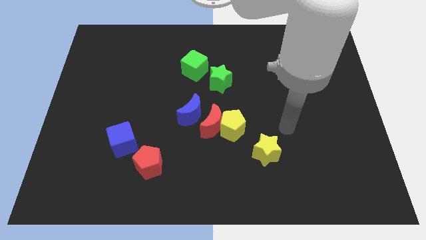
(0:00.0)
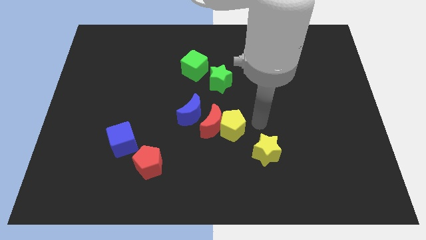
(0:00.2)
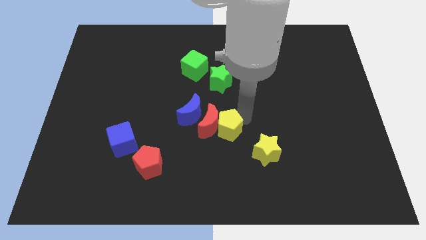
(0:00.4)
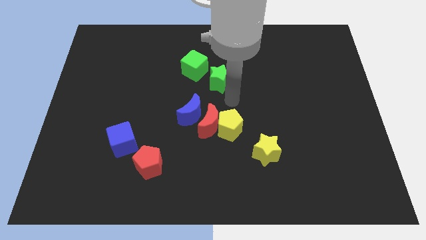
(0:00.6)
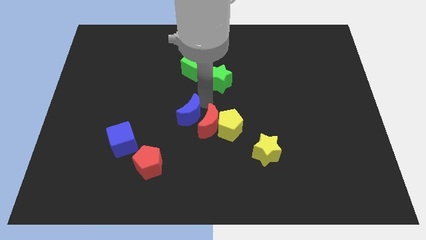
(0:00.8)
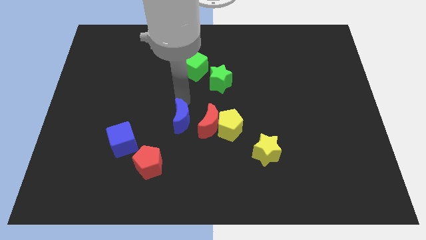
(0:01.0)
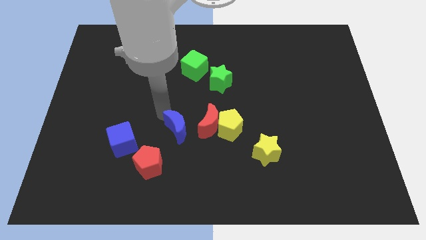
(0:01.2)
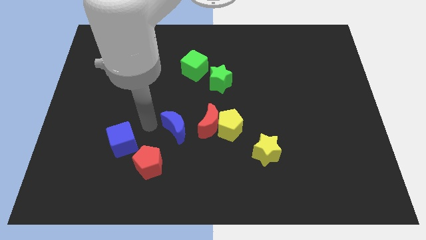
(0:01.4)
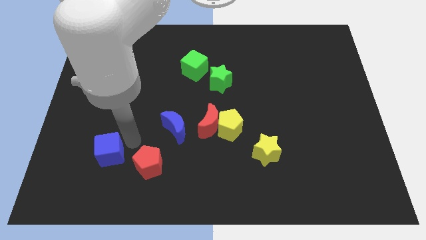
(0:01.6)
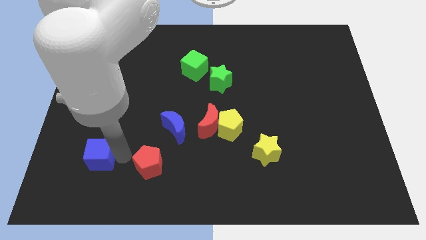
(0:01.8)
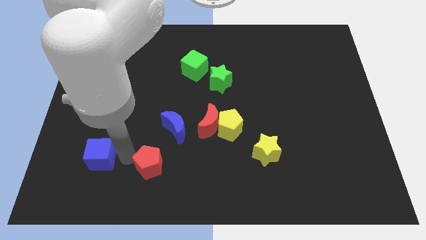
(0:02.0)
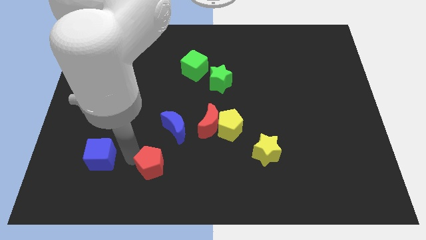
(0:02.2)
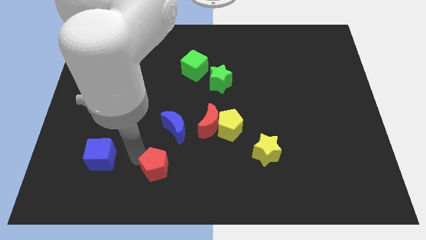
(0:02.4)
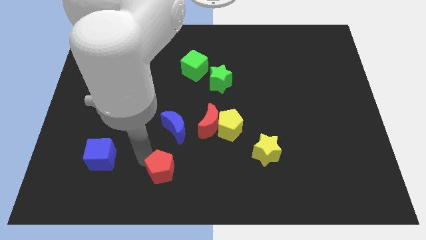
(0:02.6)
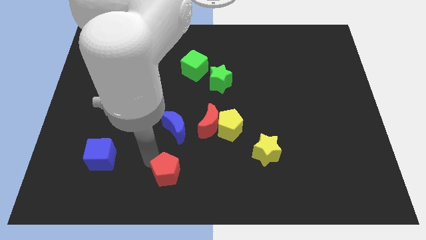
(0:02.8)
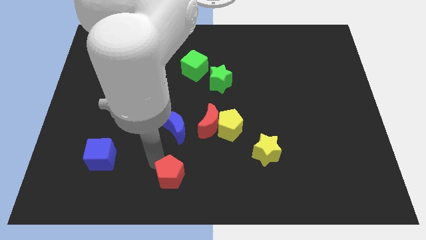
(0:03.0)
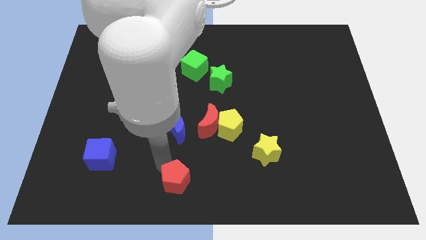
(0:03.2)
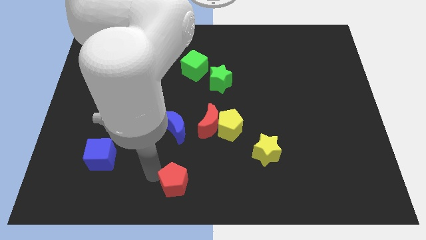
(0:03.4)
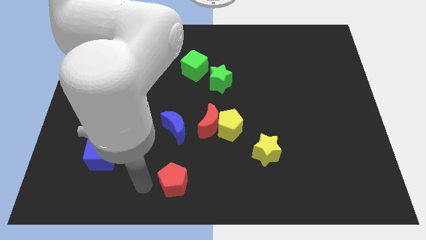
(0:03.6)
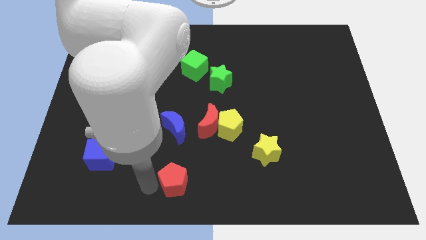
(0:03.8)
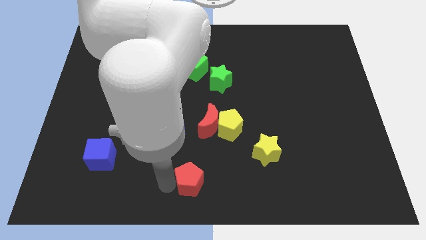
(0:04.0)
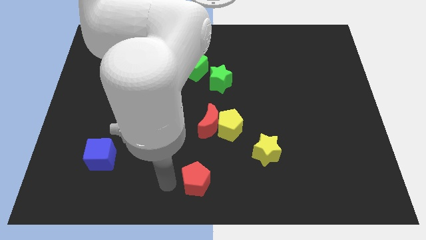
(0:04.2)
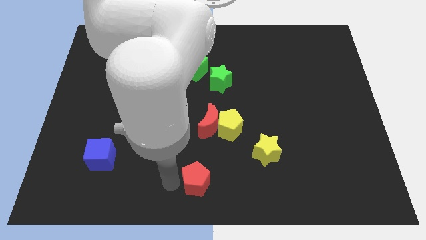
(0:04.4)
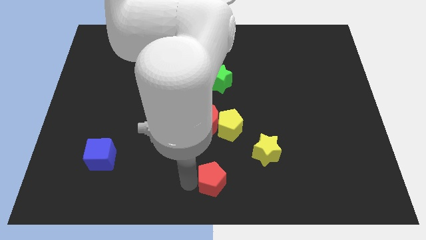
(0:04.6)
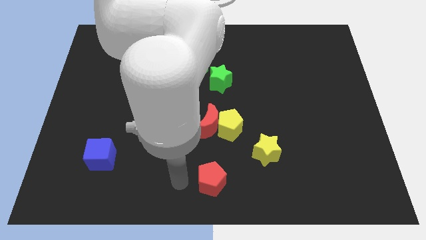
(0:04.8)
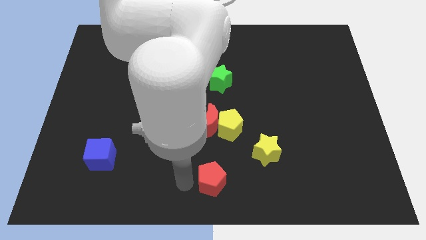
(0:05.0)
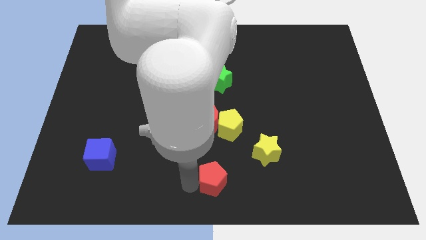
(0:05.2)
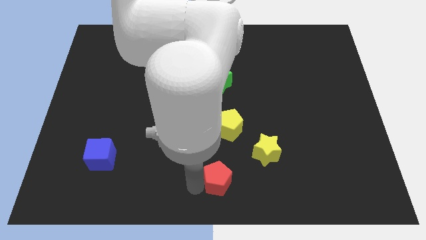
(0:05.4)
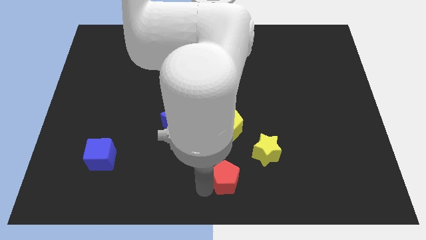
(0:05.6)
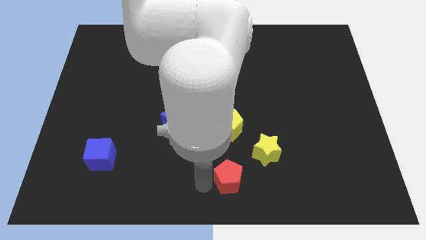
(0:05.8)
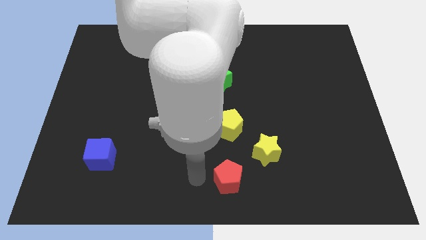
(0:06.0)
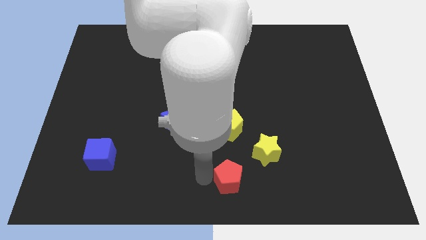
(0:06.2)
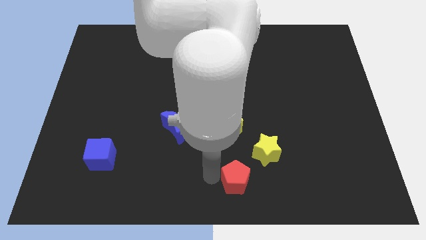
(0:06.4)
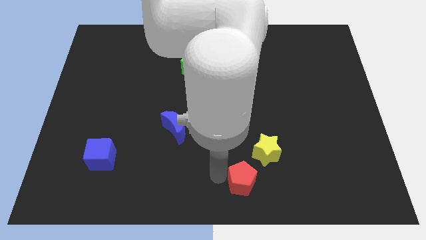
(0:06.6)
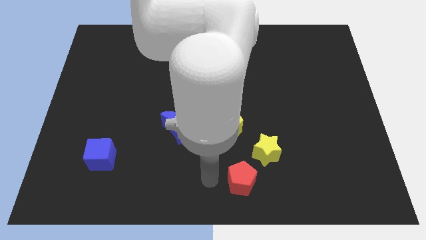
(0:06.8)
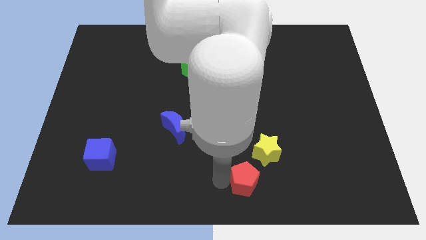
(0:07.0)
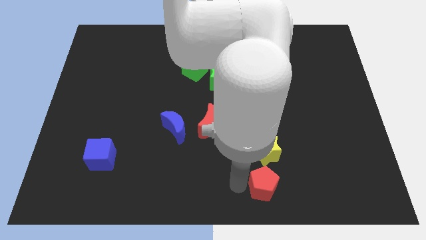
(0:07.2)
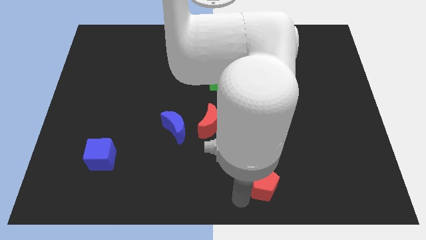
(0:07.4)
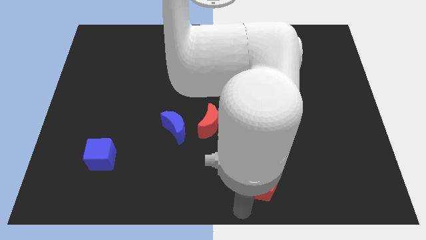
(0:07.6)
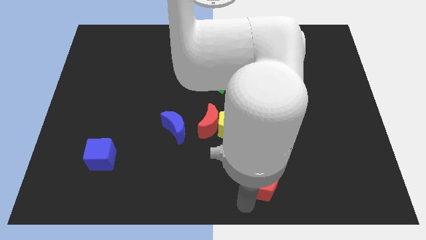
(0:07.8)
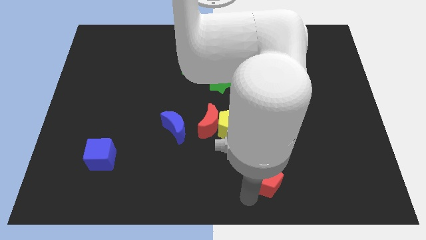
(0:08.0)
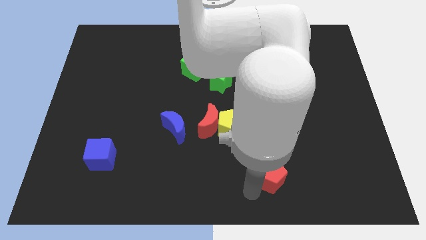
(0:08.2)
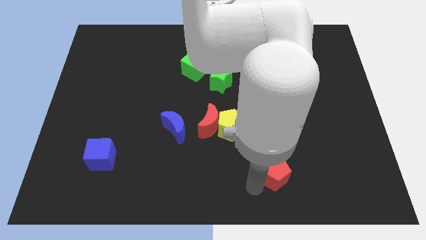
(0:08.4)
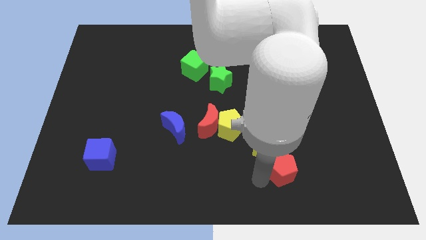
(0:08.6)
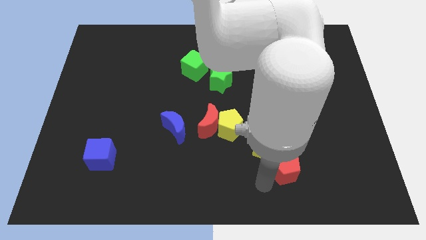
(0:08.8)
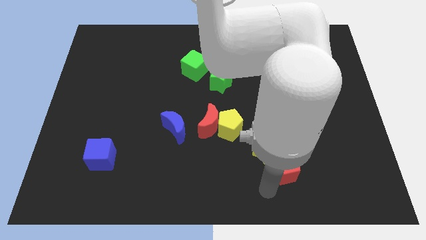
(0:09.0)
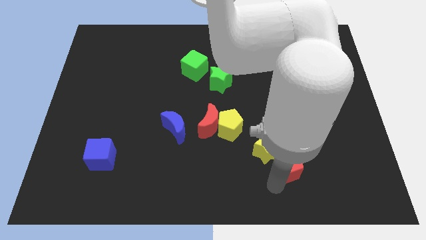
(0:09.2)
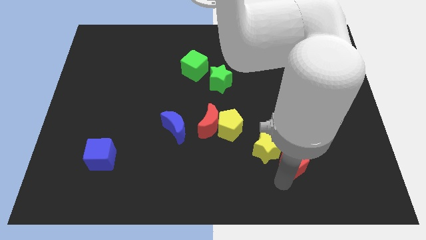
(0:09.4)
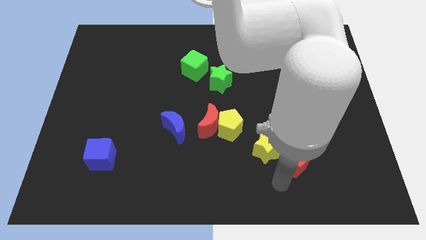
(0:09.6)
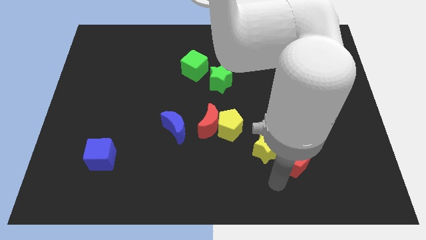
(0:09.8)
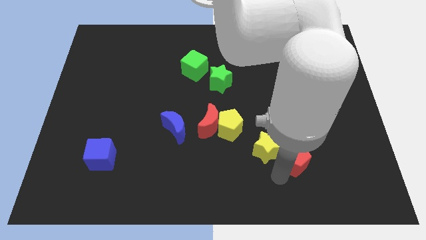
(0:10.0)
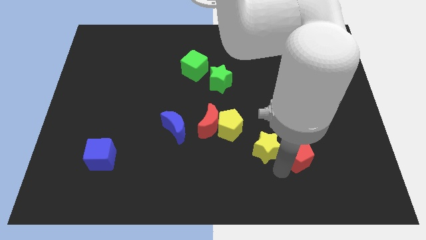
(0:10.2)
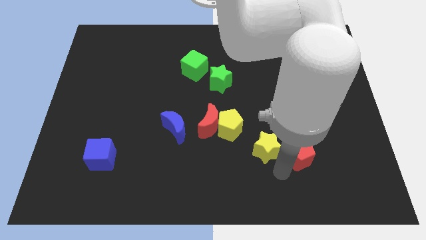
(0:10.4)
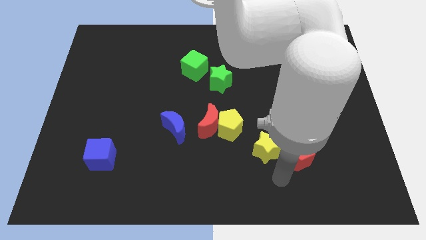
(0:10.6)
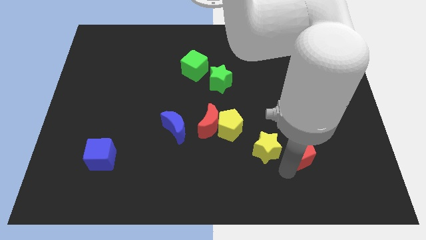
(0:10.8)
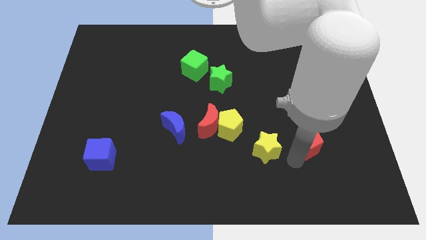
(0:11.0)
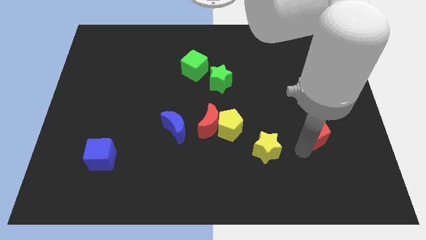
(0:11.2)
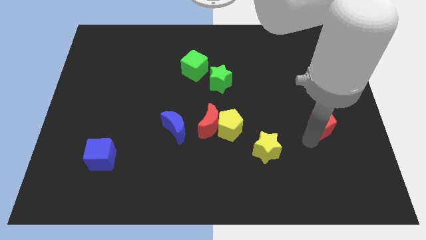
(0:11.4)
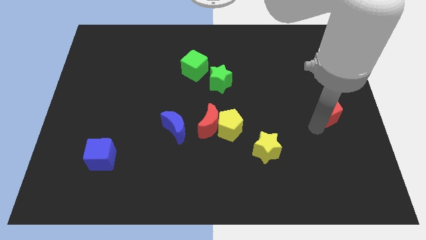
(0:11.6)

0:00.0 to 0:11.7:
slide the red pentagon to the right side

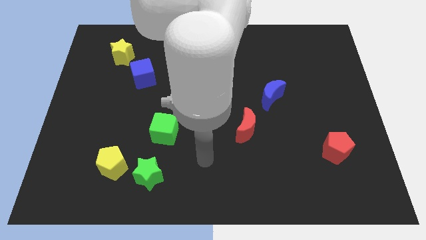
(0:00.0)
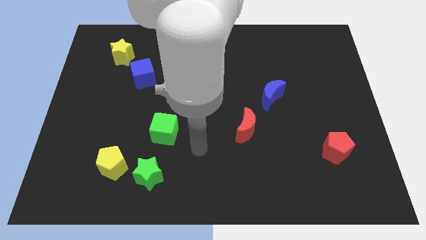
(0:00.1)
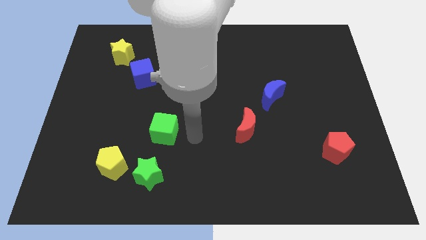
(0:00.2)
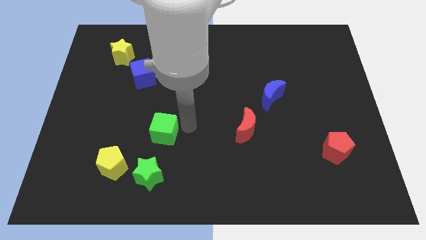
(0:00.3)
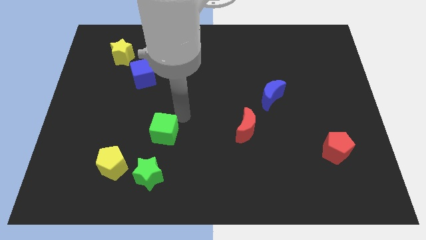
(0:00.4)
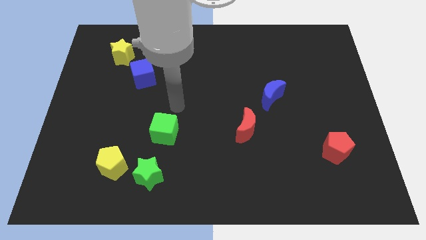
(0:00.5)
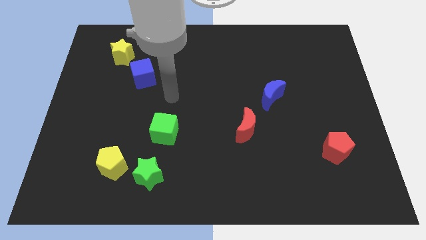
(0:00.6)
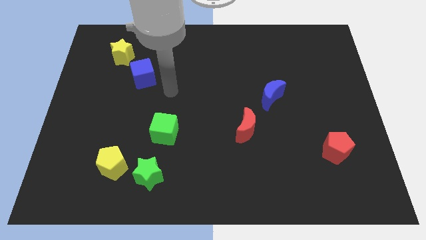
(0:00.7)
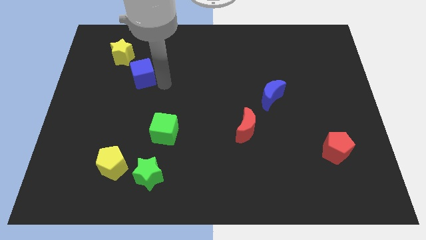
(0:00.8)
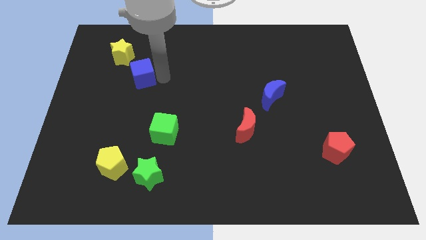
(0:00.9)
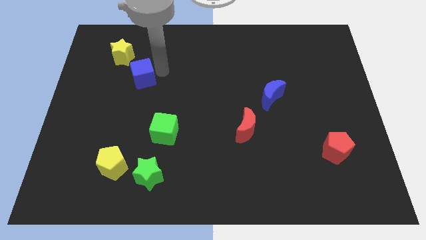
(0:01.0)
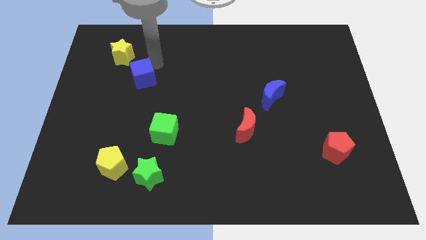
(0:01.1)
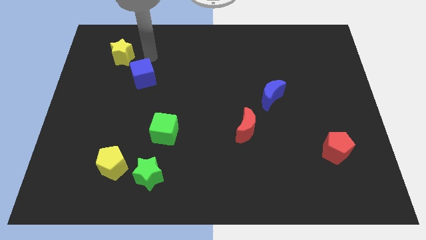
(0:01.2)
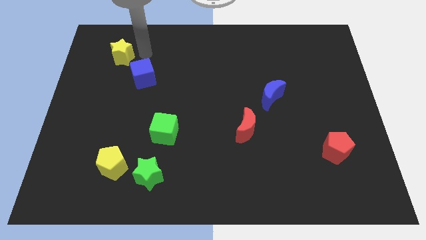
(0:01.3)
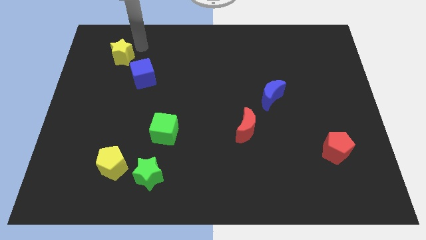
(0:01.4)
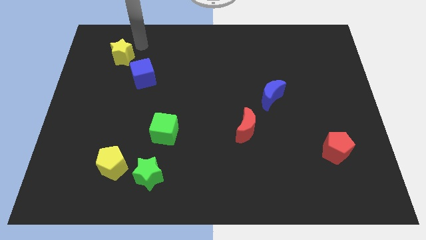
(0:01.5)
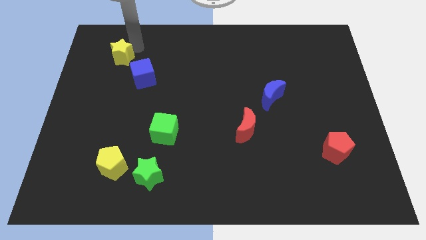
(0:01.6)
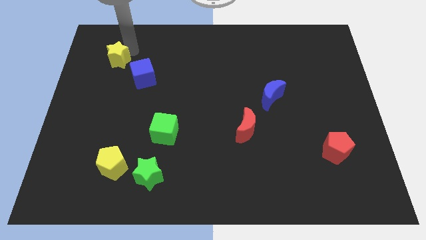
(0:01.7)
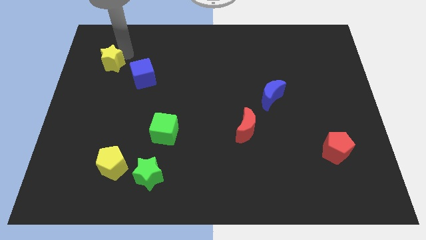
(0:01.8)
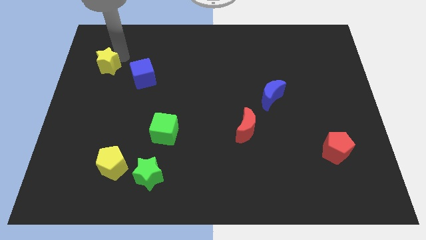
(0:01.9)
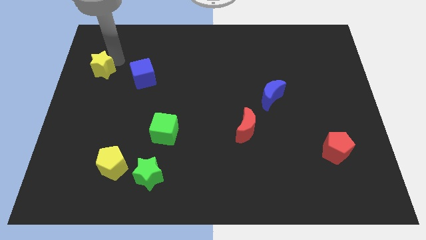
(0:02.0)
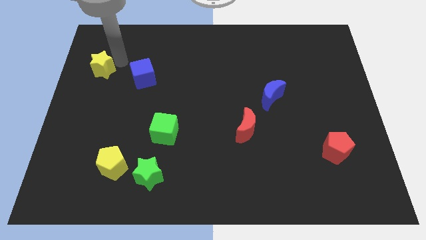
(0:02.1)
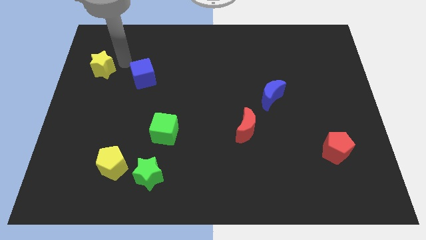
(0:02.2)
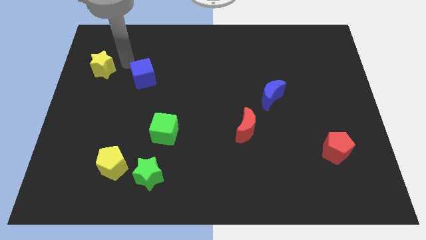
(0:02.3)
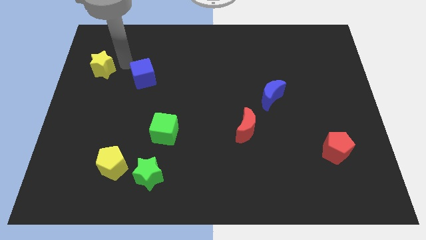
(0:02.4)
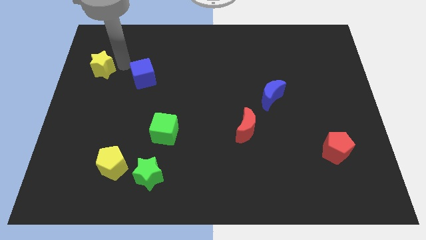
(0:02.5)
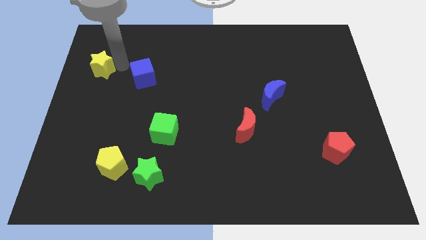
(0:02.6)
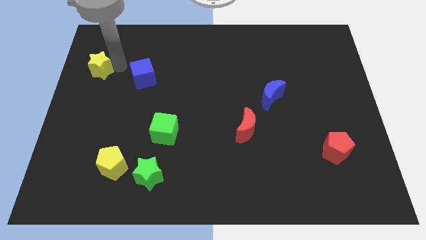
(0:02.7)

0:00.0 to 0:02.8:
slide the yellow star to the center left
